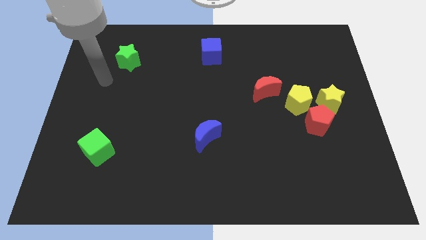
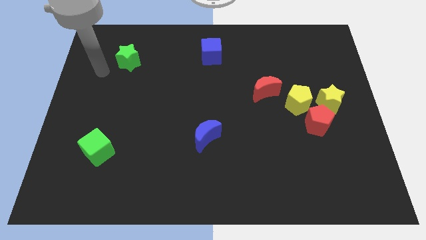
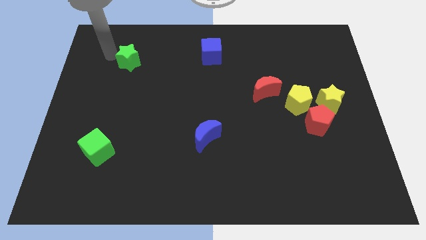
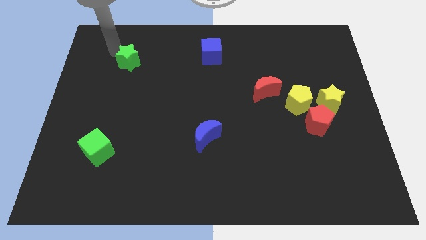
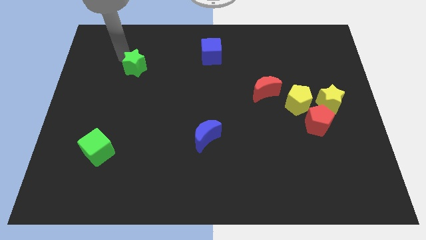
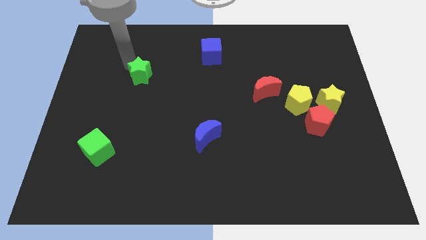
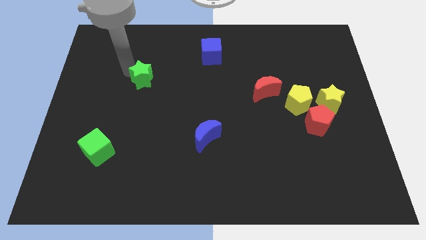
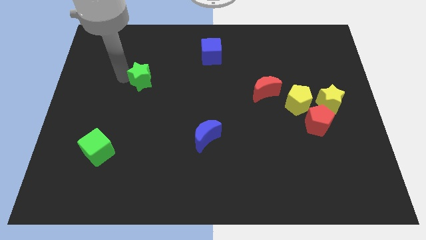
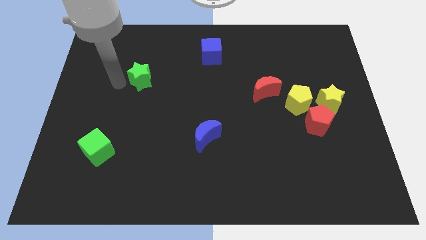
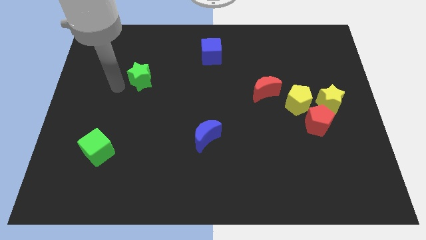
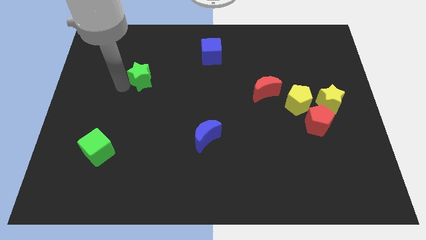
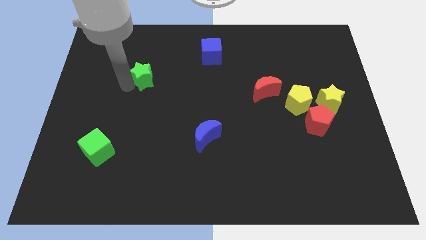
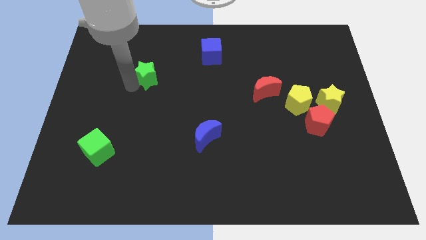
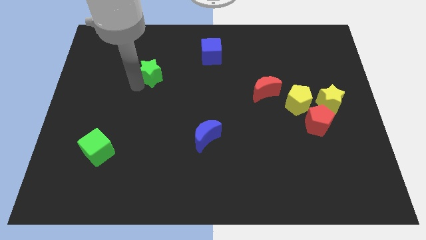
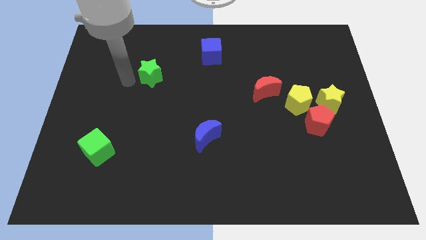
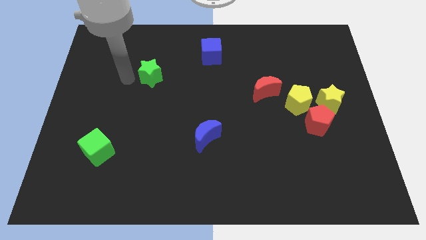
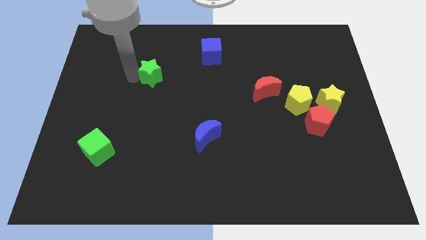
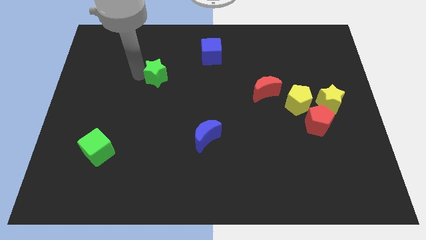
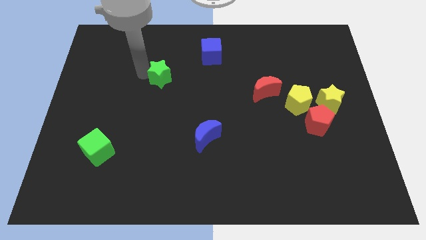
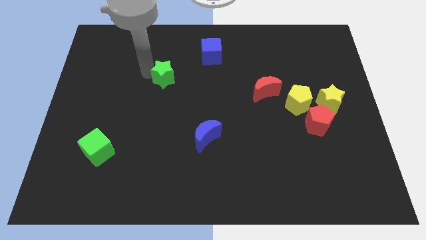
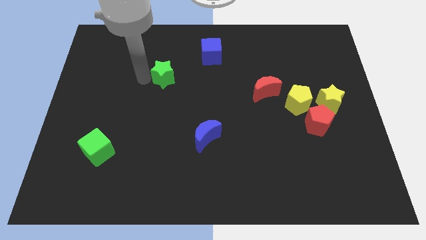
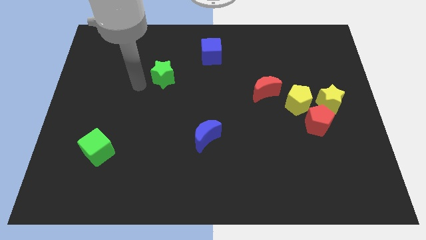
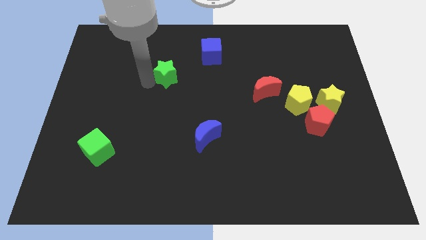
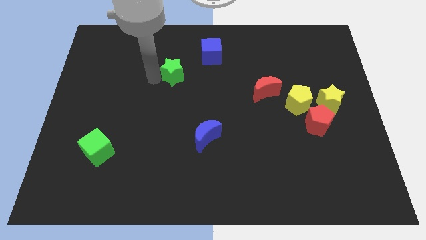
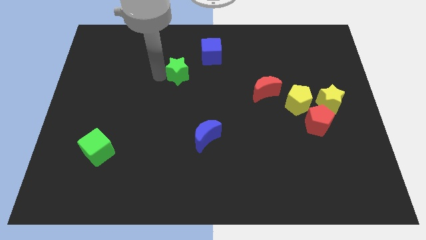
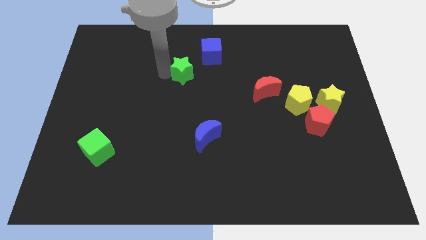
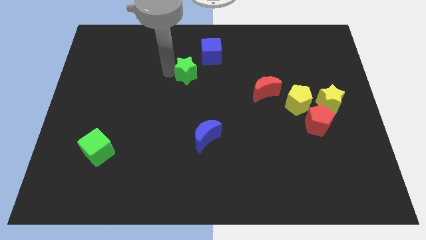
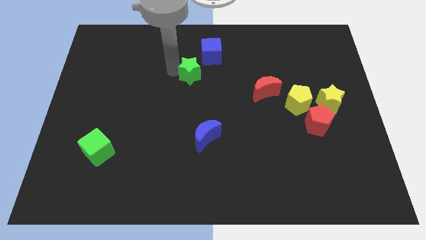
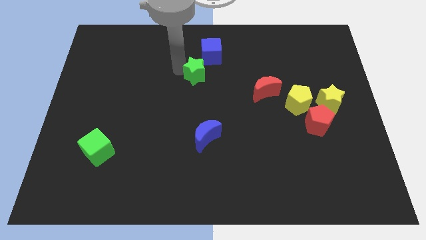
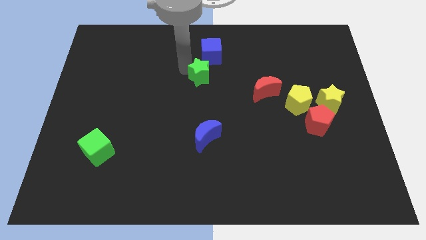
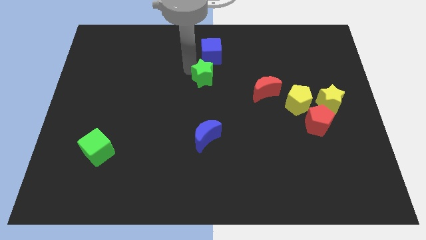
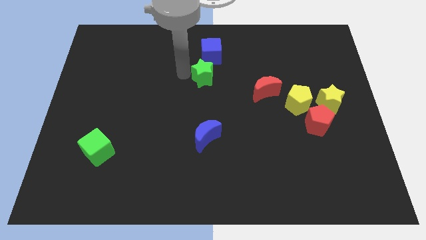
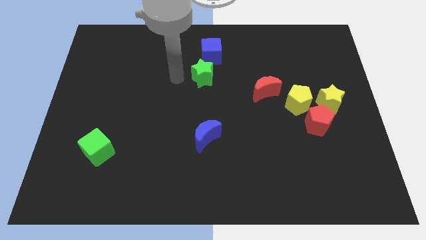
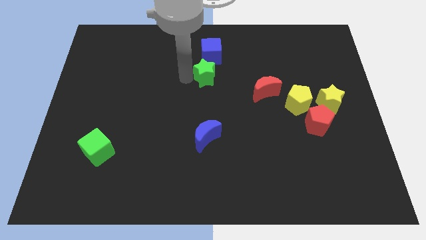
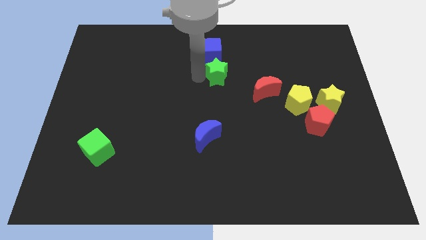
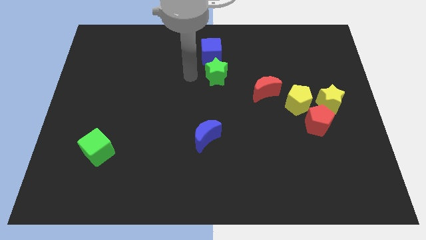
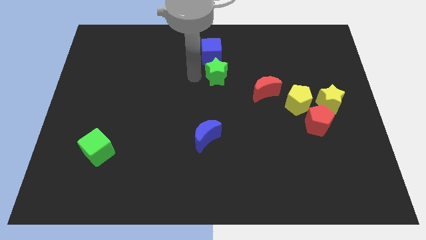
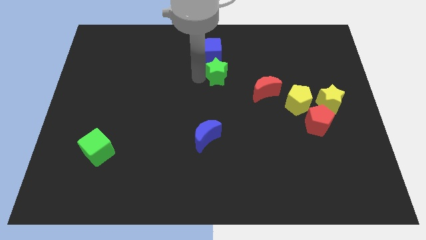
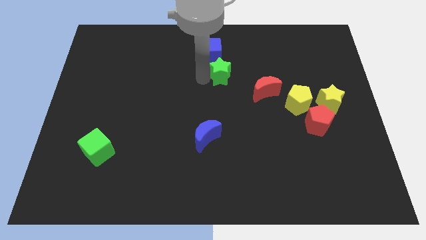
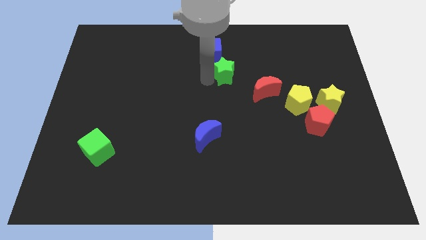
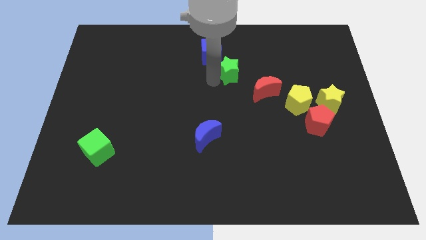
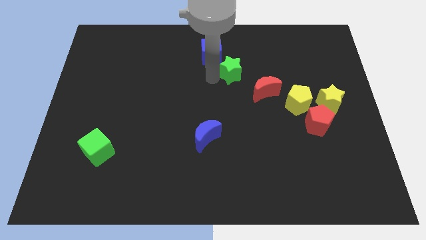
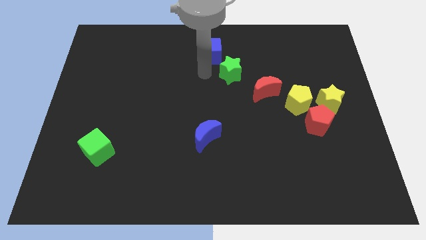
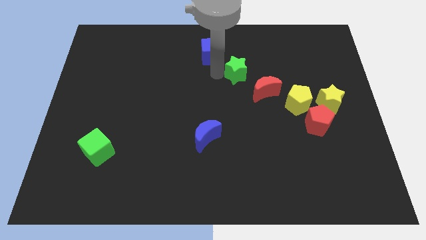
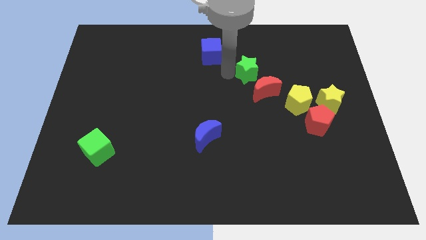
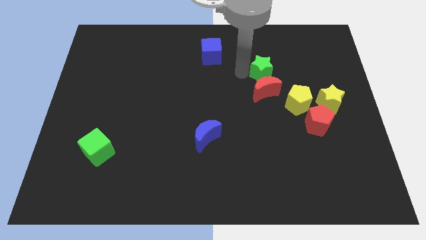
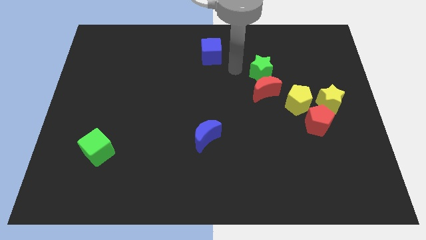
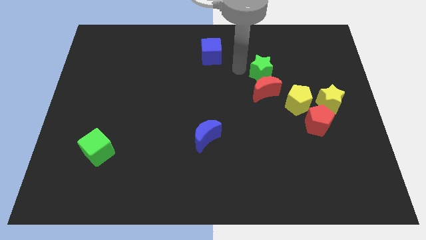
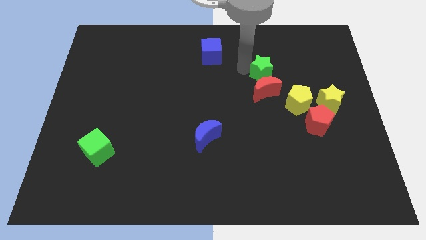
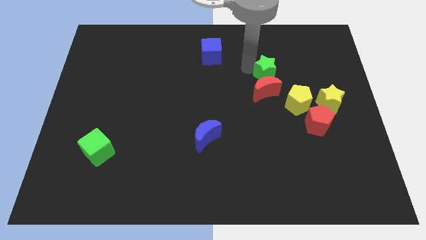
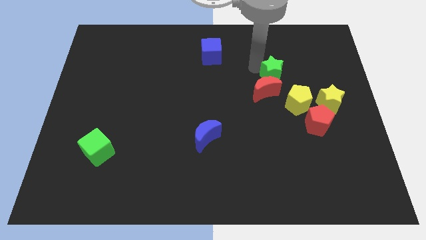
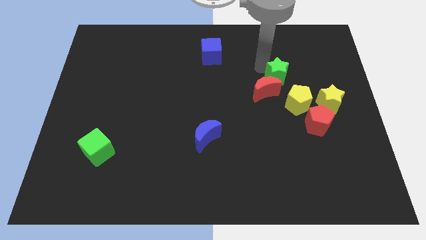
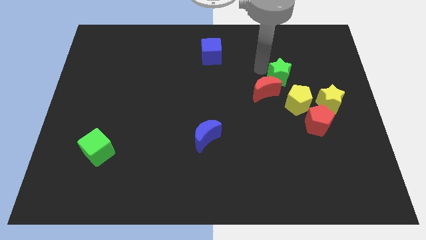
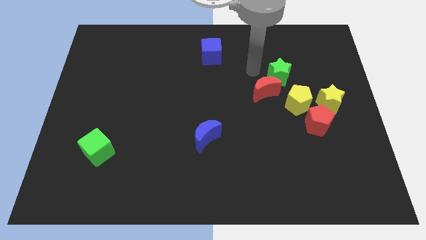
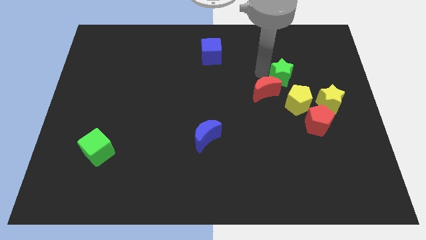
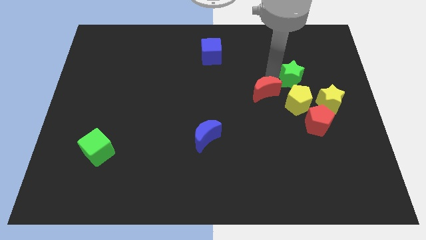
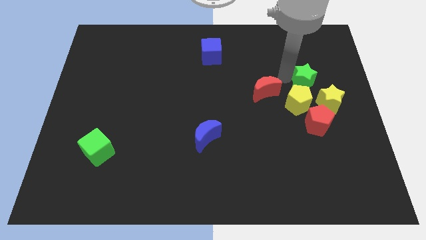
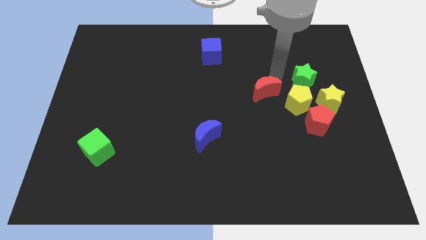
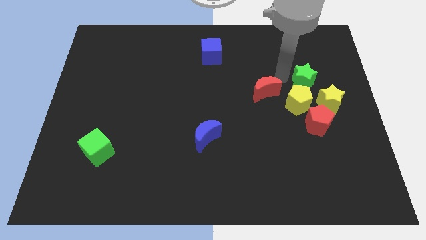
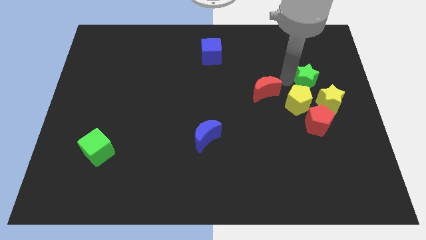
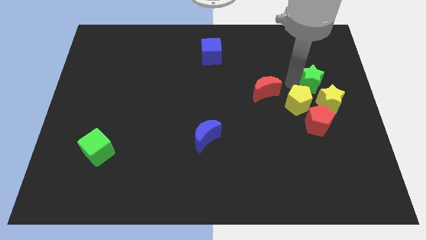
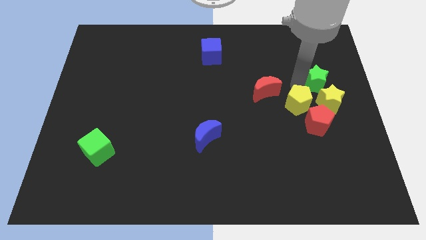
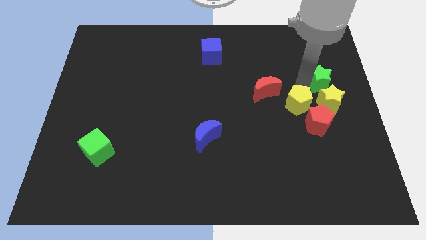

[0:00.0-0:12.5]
push the green star to the center right

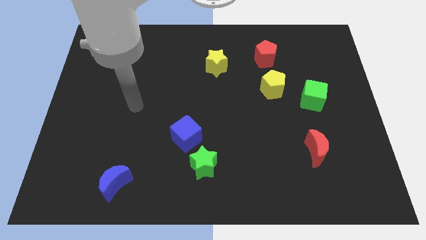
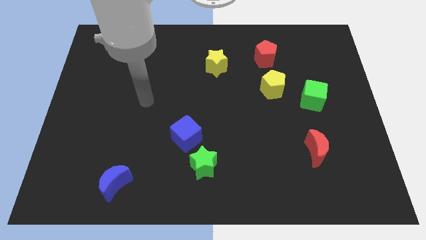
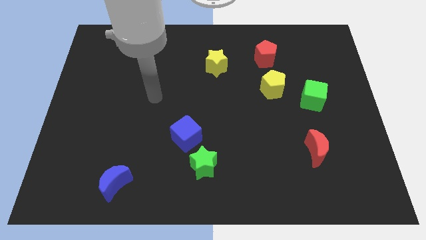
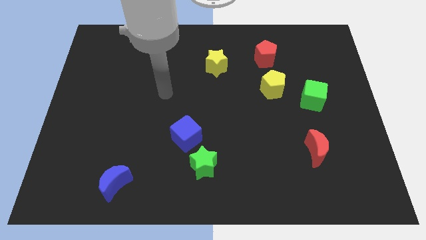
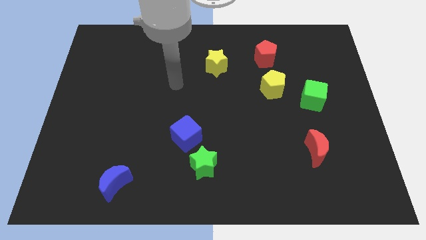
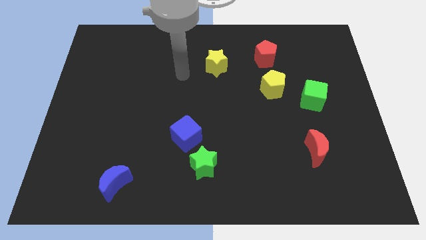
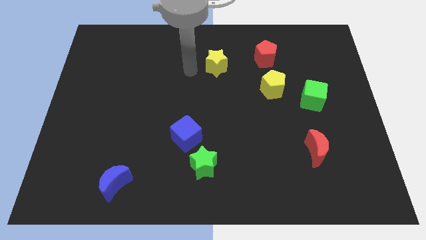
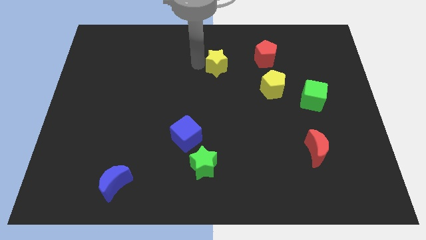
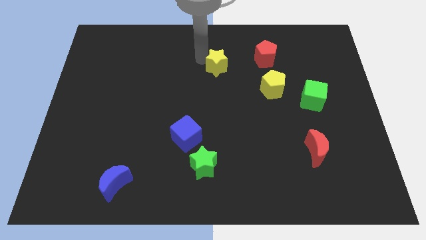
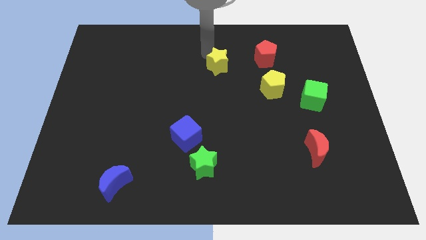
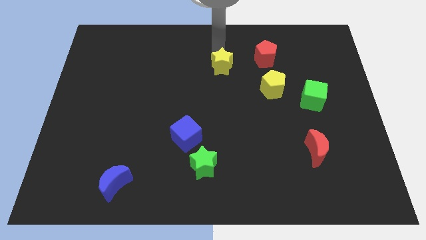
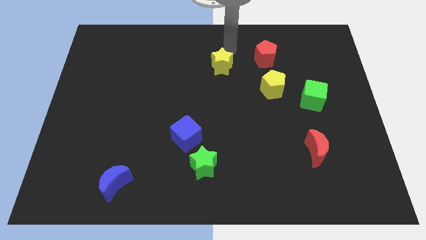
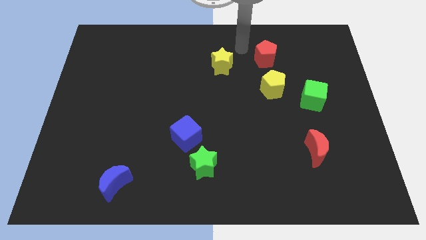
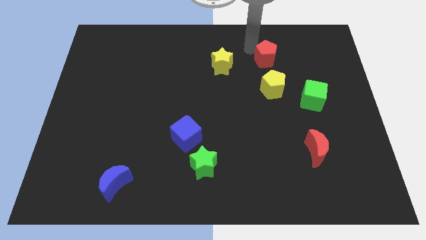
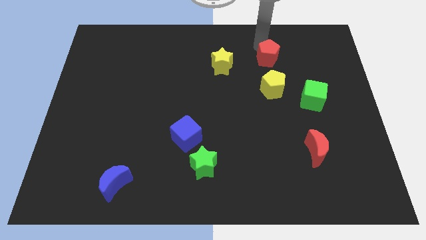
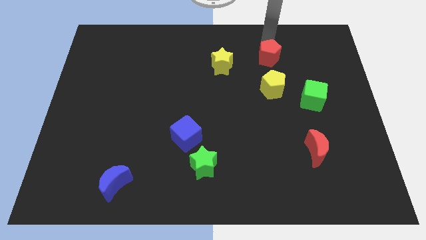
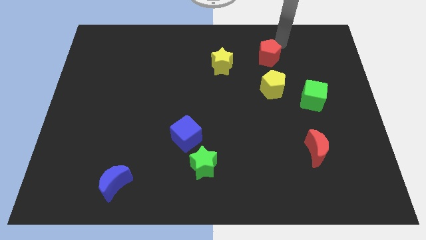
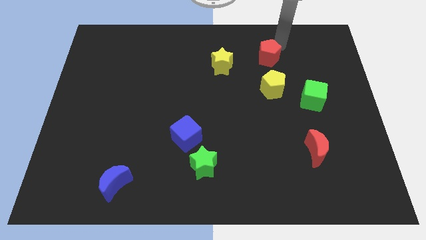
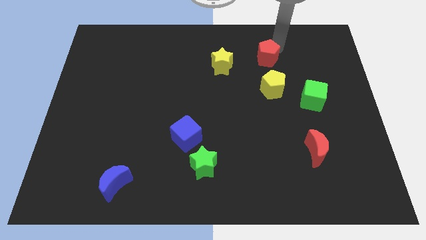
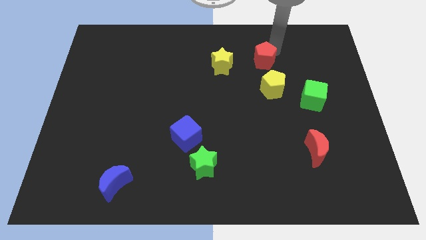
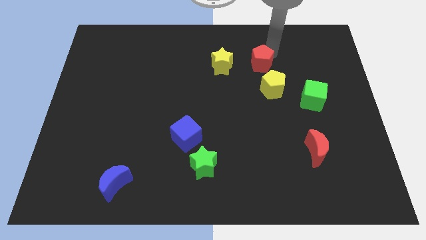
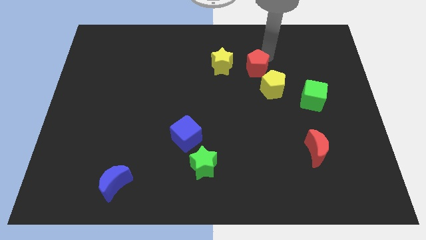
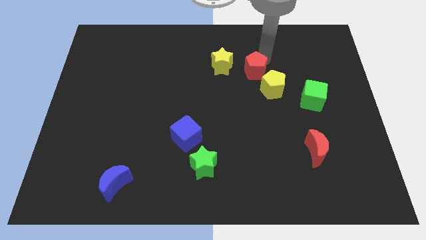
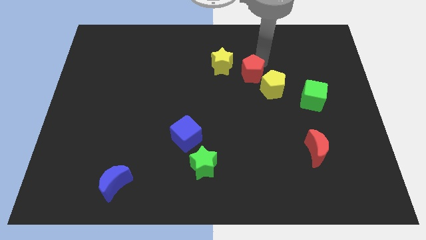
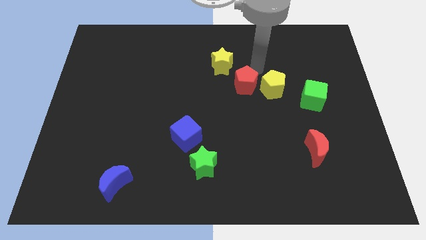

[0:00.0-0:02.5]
move the red pentagon to the center
